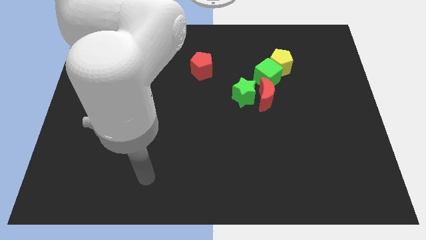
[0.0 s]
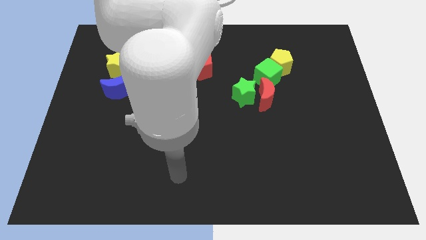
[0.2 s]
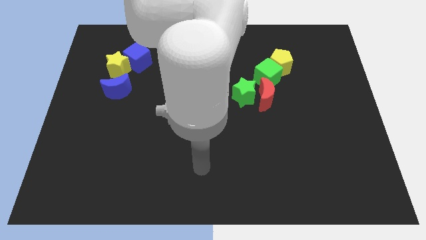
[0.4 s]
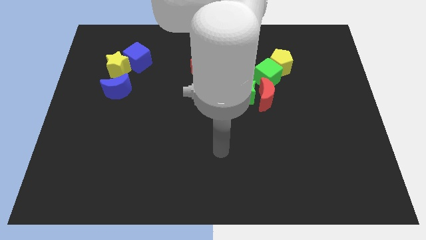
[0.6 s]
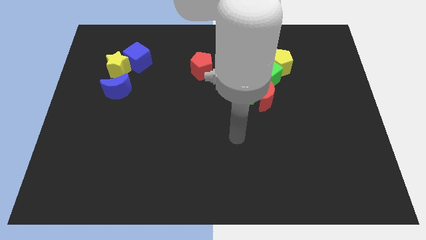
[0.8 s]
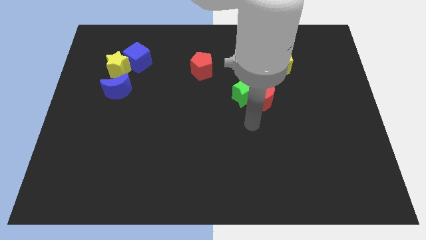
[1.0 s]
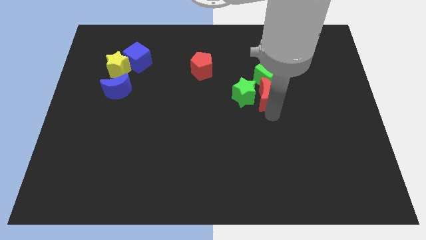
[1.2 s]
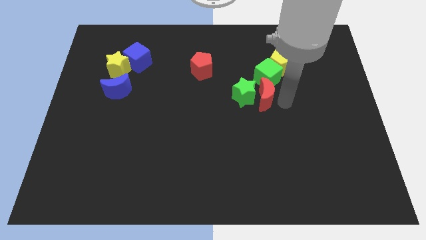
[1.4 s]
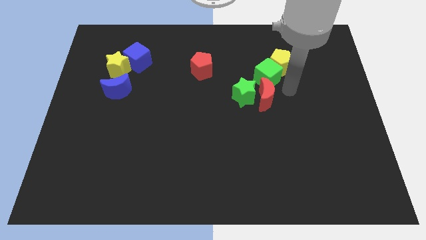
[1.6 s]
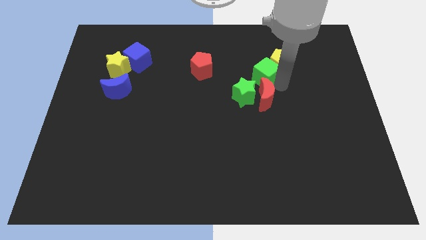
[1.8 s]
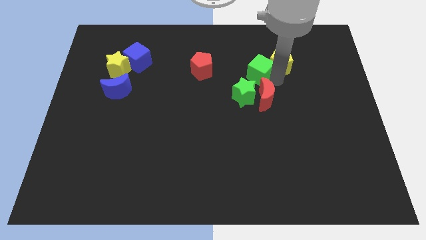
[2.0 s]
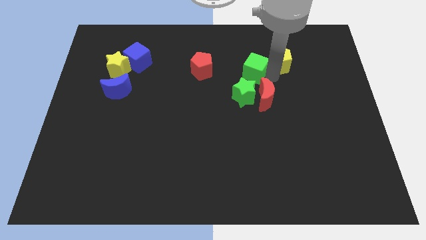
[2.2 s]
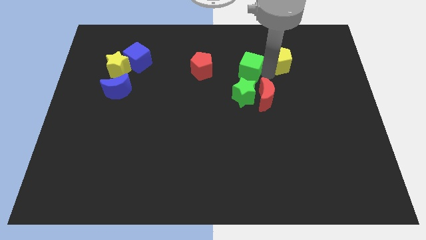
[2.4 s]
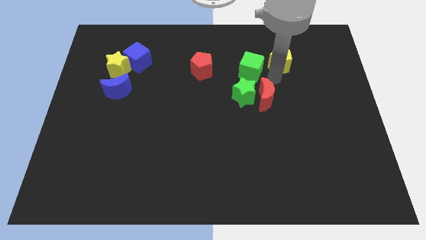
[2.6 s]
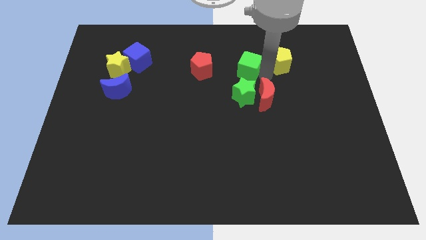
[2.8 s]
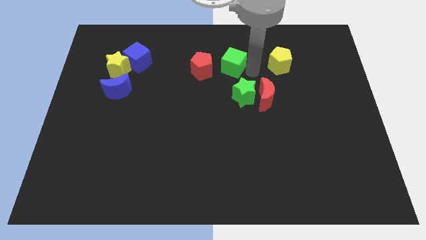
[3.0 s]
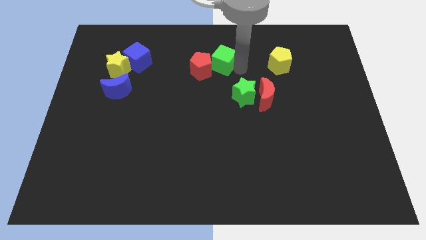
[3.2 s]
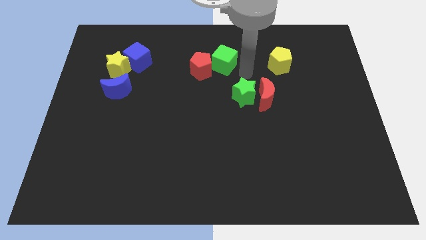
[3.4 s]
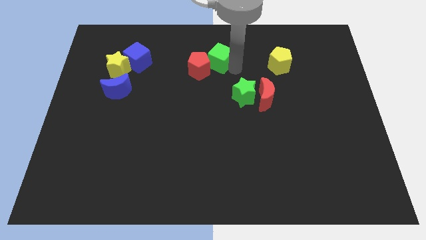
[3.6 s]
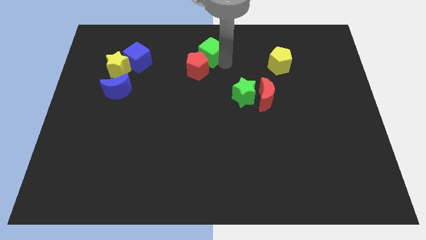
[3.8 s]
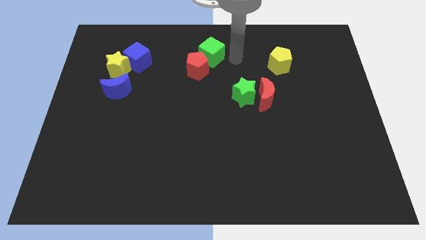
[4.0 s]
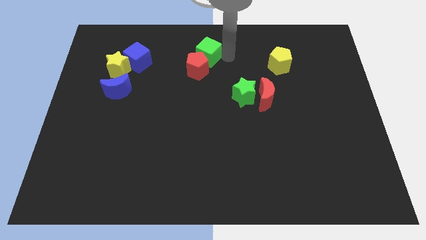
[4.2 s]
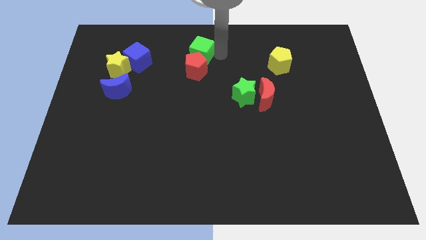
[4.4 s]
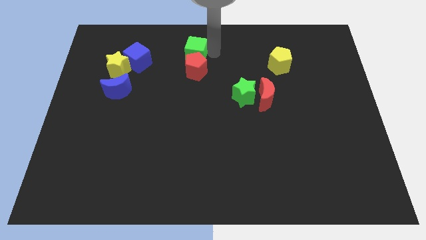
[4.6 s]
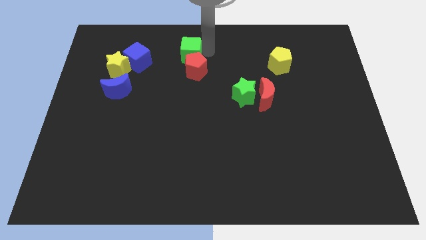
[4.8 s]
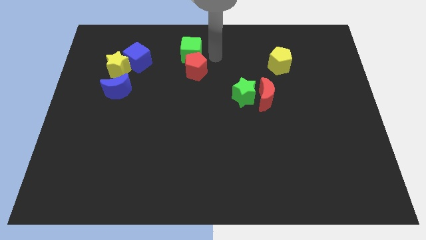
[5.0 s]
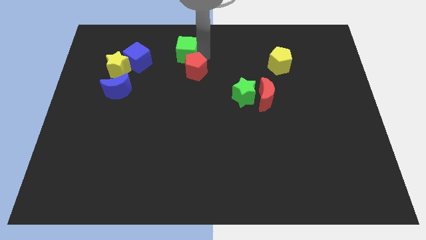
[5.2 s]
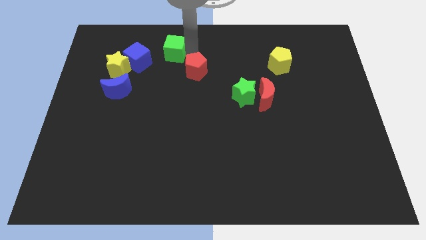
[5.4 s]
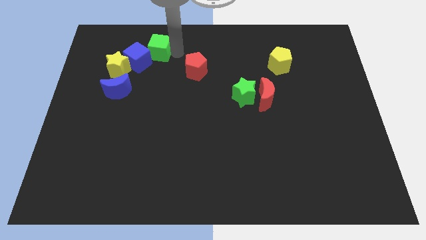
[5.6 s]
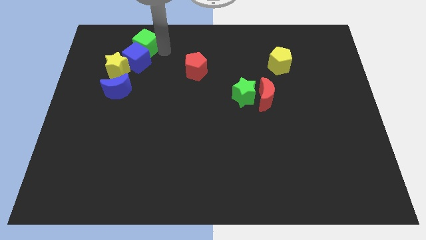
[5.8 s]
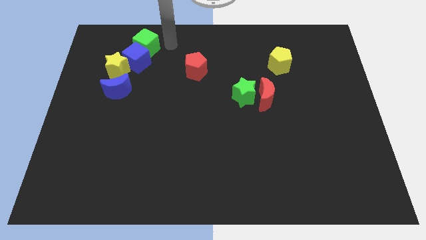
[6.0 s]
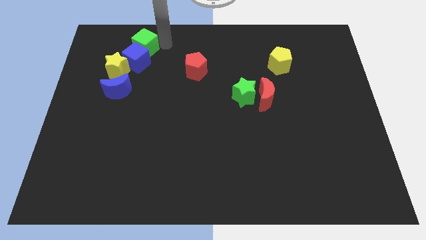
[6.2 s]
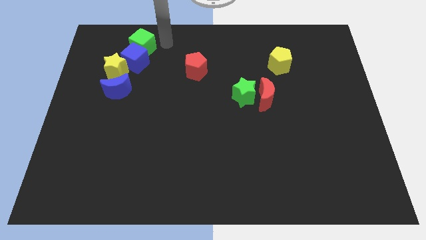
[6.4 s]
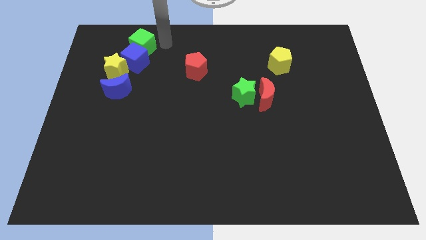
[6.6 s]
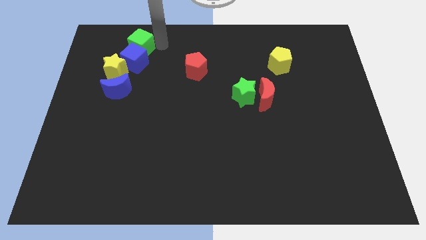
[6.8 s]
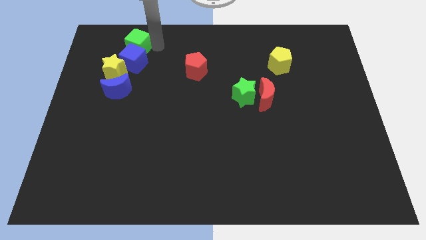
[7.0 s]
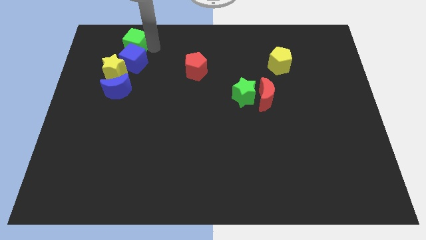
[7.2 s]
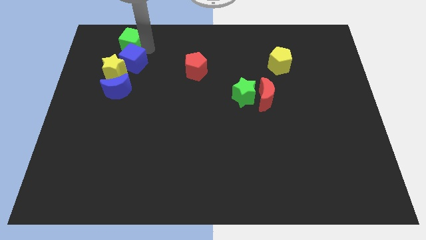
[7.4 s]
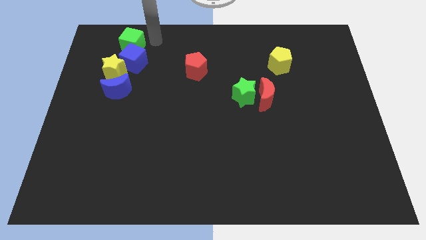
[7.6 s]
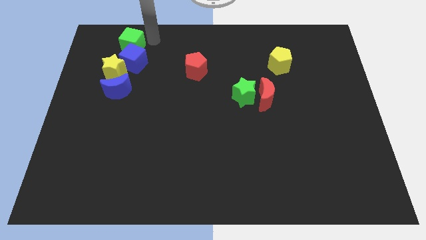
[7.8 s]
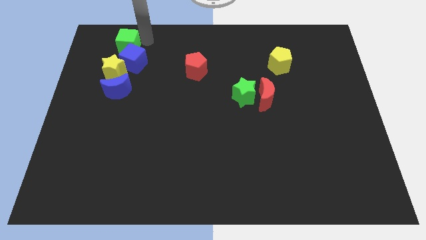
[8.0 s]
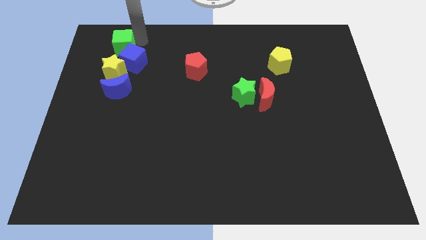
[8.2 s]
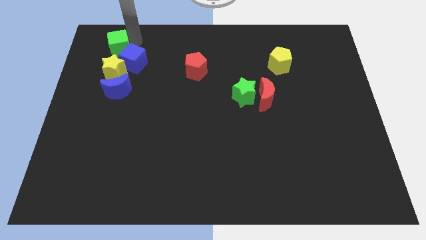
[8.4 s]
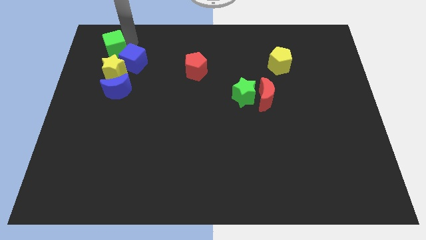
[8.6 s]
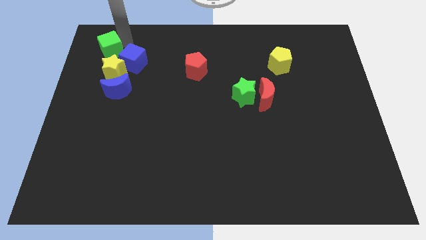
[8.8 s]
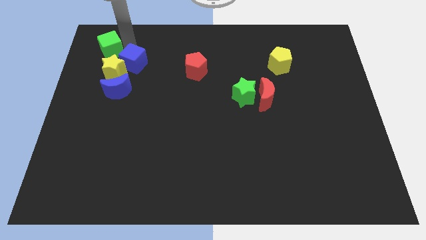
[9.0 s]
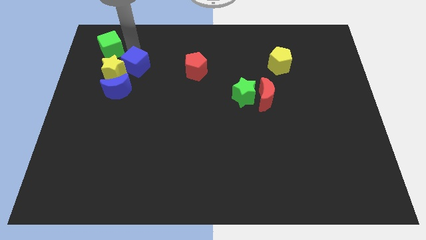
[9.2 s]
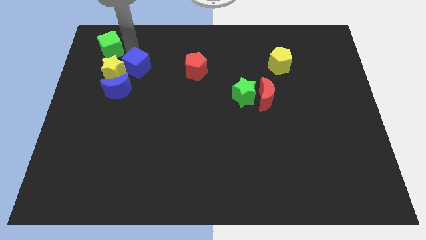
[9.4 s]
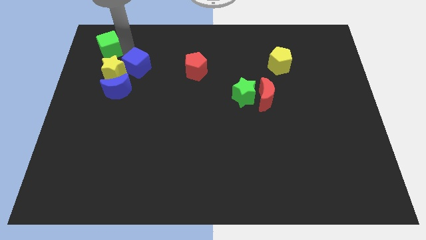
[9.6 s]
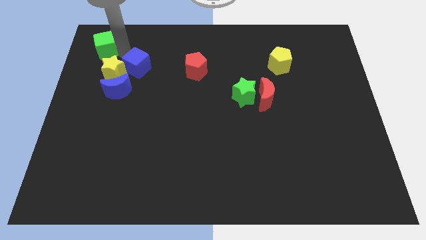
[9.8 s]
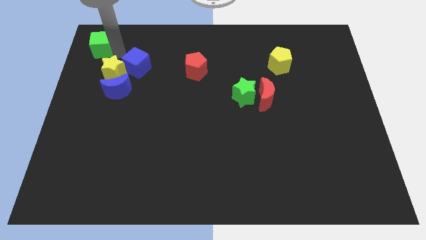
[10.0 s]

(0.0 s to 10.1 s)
put the green cube to the top left of the board

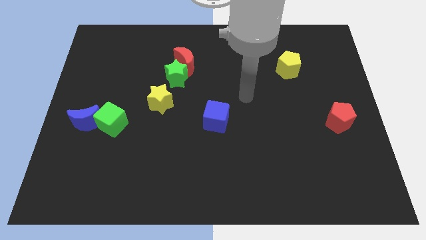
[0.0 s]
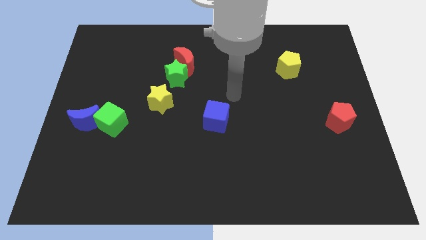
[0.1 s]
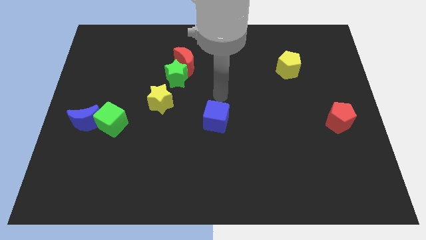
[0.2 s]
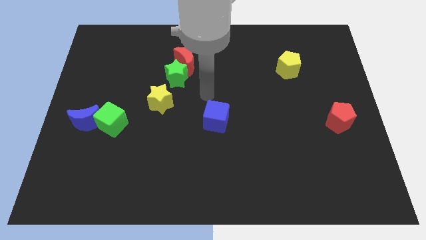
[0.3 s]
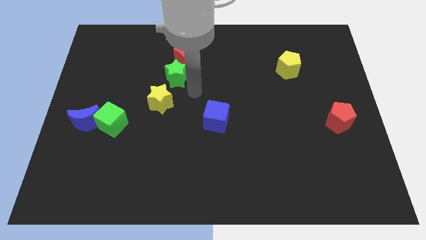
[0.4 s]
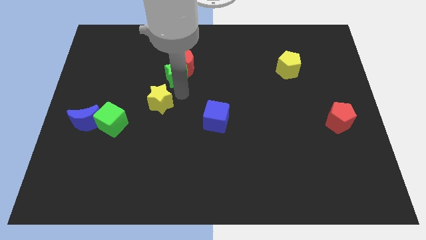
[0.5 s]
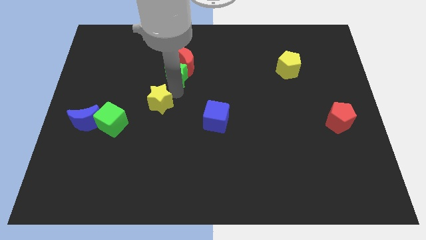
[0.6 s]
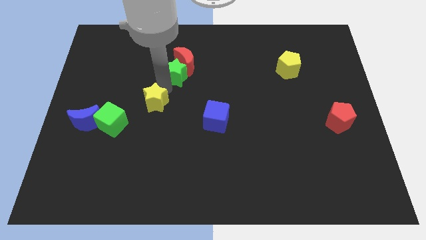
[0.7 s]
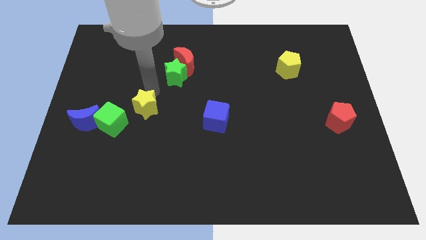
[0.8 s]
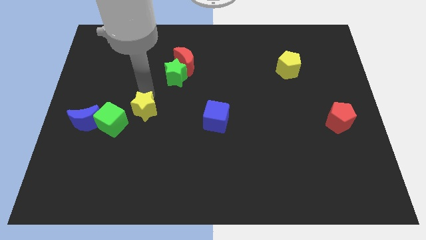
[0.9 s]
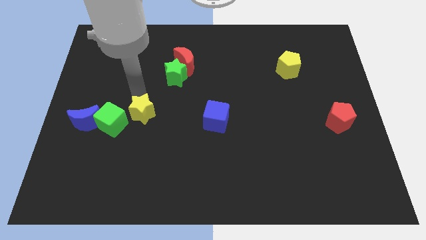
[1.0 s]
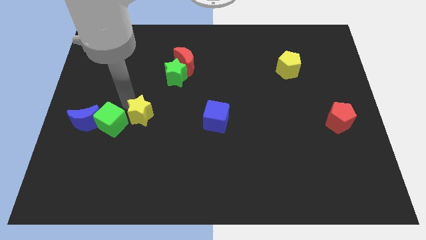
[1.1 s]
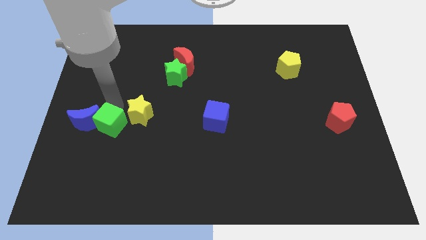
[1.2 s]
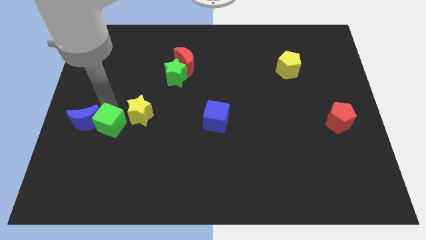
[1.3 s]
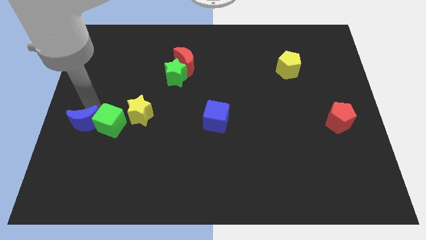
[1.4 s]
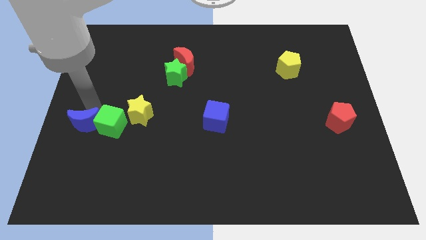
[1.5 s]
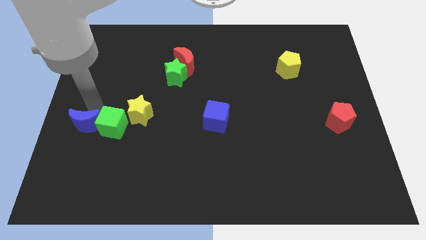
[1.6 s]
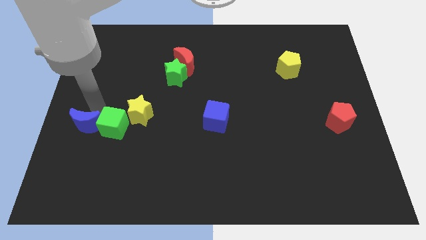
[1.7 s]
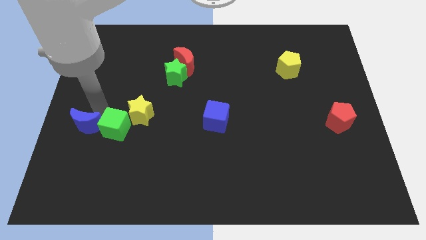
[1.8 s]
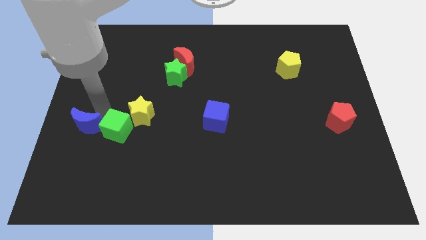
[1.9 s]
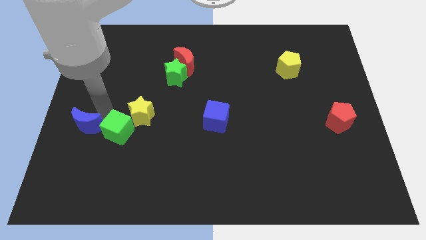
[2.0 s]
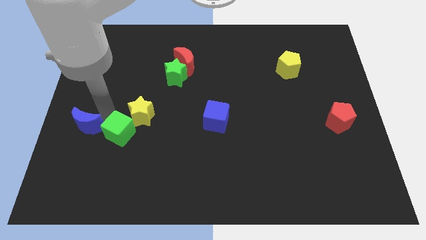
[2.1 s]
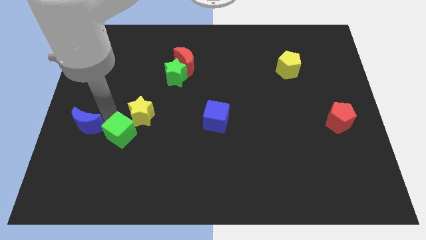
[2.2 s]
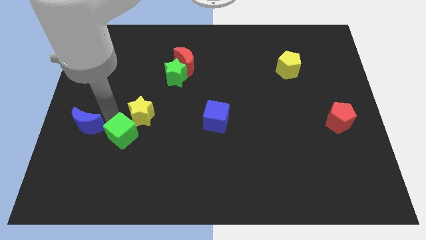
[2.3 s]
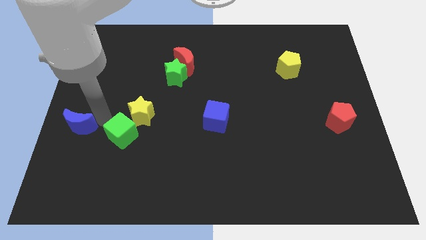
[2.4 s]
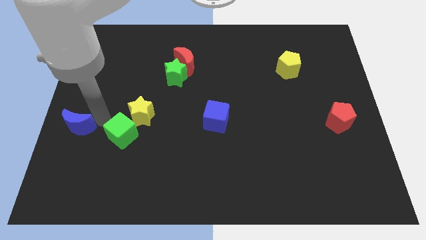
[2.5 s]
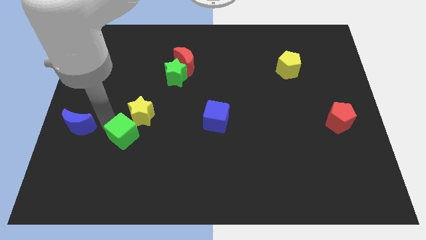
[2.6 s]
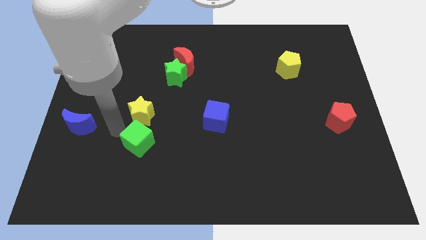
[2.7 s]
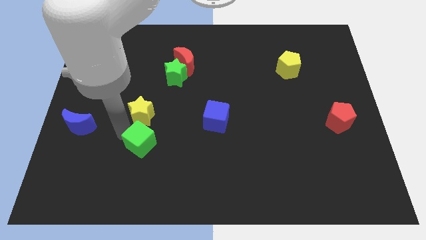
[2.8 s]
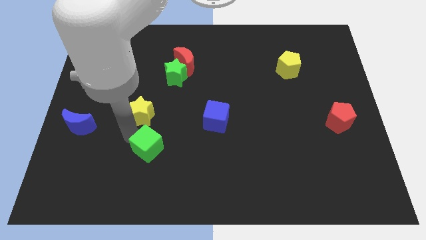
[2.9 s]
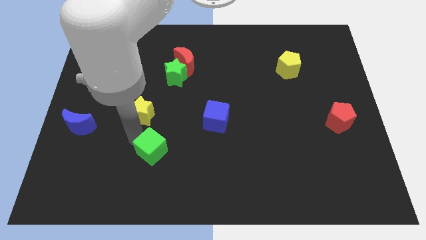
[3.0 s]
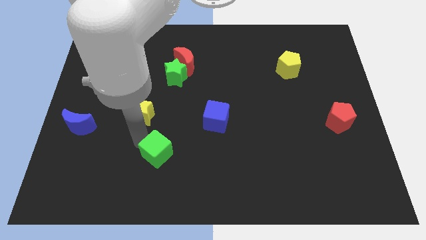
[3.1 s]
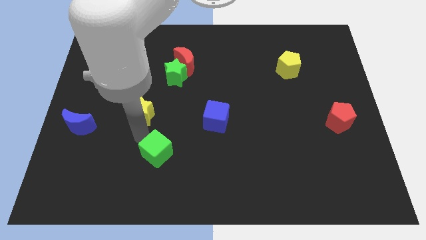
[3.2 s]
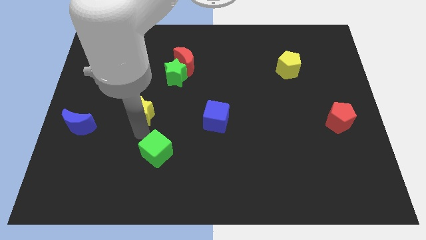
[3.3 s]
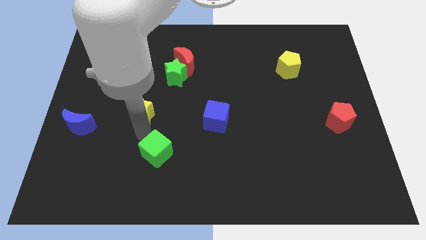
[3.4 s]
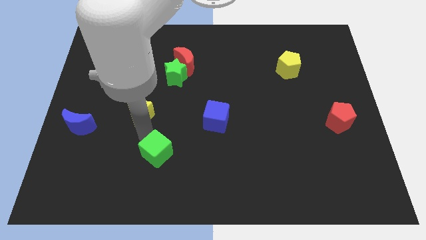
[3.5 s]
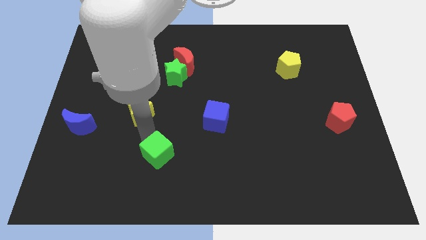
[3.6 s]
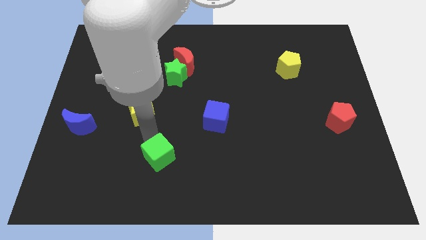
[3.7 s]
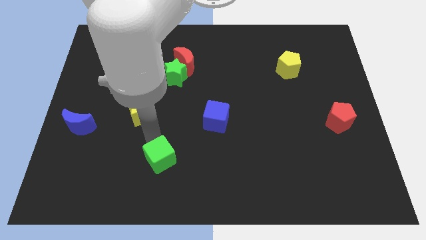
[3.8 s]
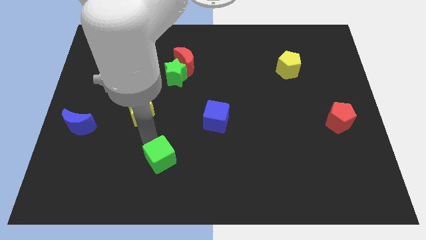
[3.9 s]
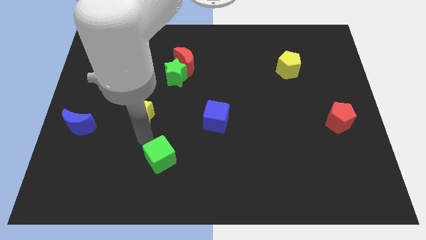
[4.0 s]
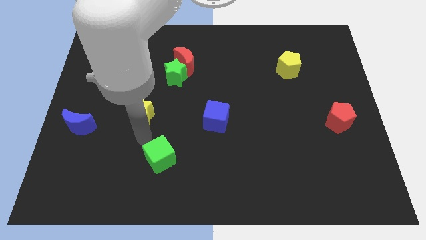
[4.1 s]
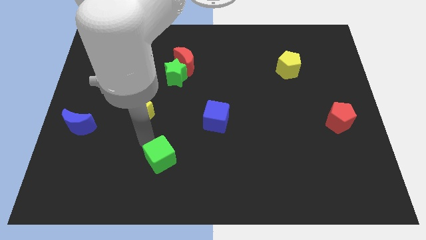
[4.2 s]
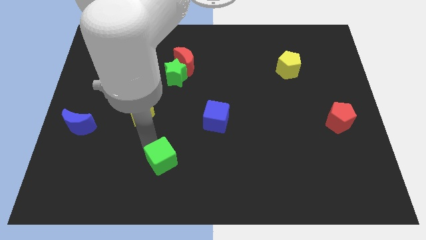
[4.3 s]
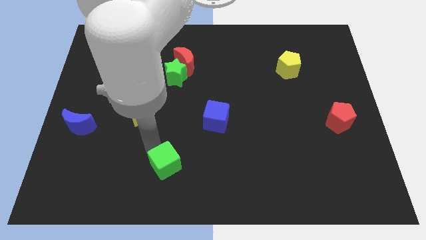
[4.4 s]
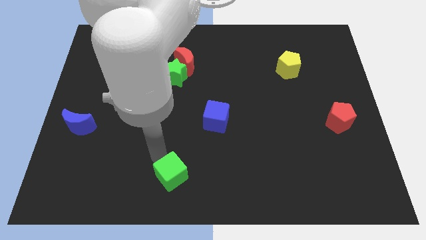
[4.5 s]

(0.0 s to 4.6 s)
push the green cube to the bottom side
